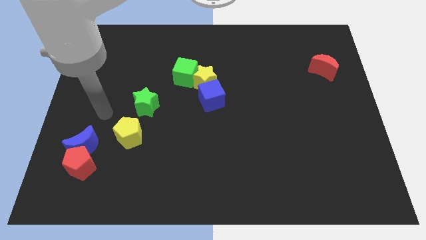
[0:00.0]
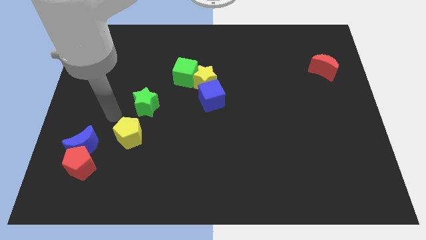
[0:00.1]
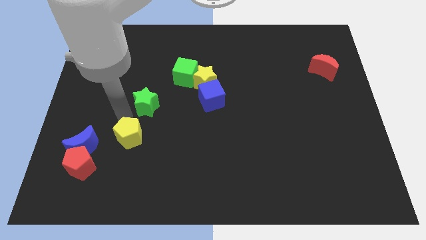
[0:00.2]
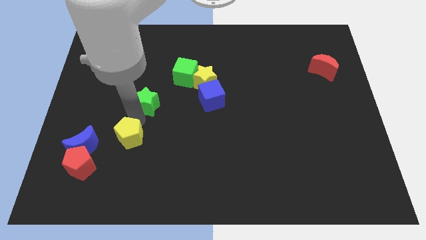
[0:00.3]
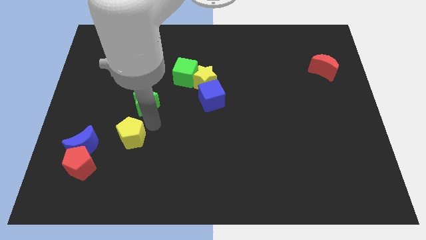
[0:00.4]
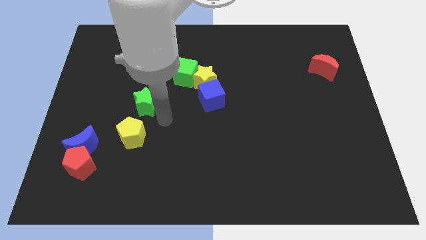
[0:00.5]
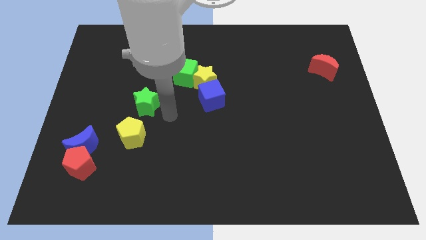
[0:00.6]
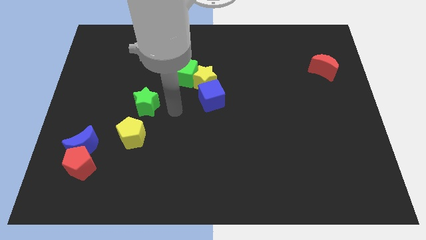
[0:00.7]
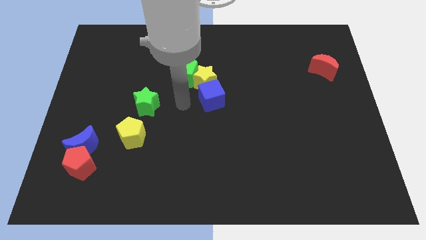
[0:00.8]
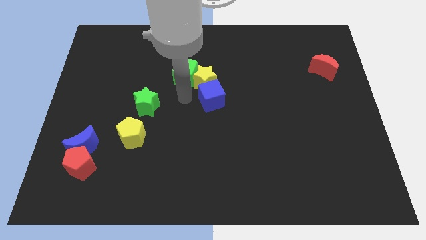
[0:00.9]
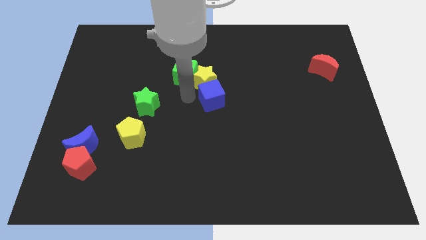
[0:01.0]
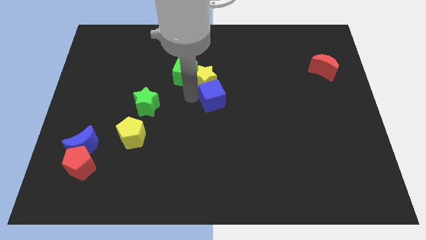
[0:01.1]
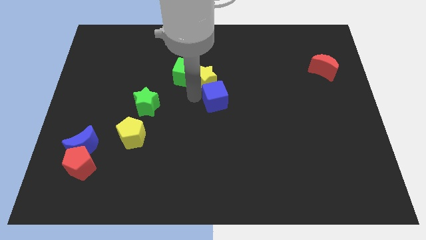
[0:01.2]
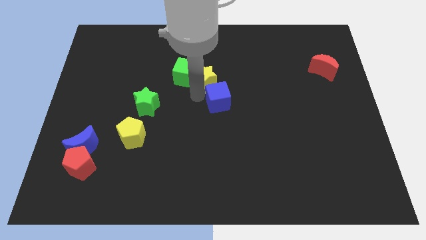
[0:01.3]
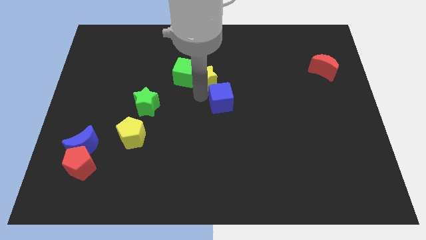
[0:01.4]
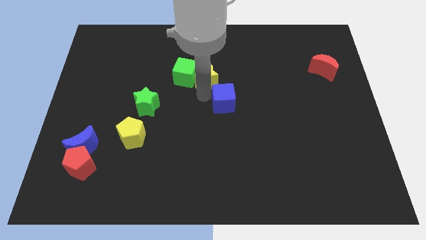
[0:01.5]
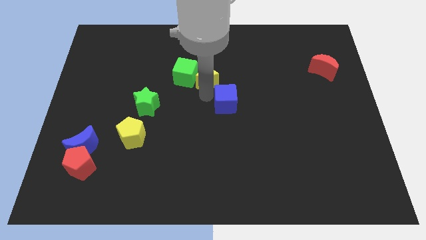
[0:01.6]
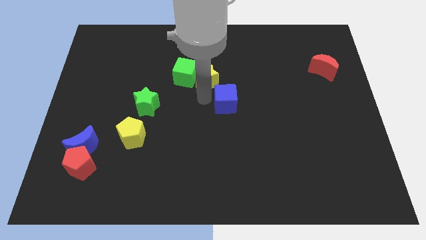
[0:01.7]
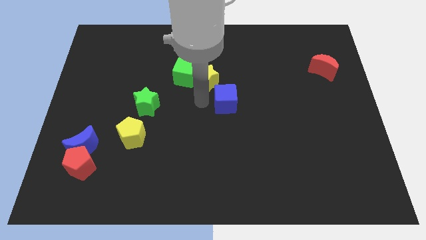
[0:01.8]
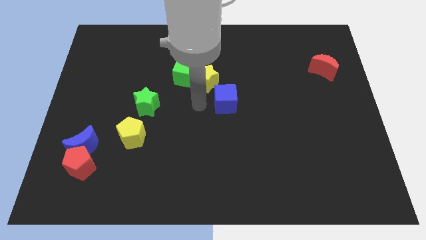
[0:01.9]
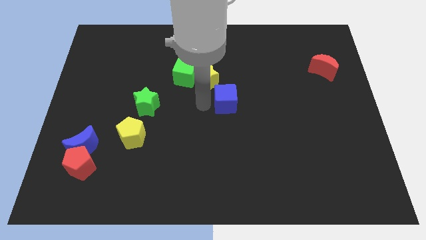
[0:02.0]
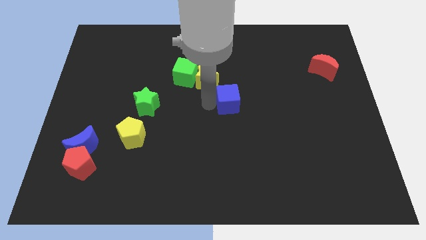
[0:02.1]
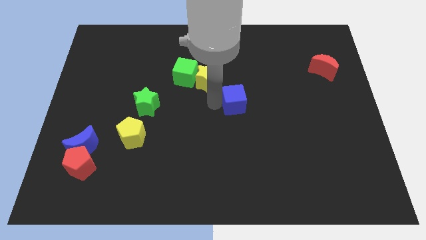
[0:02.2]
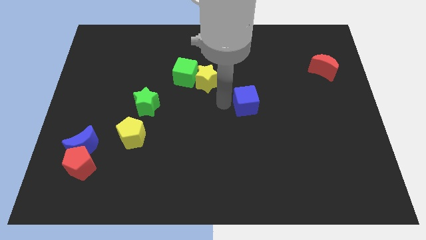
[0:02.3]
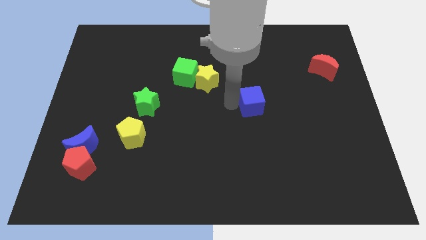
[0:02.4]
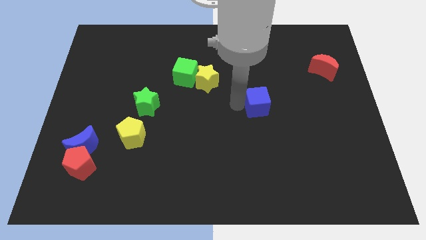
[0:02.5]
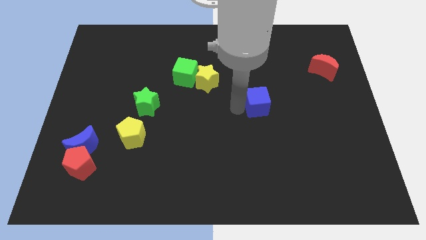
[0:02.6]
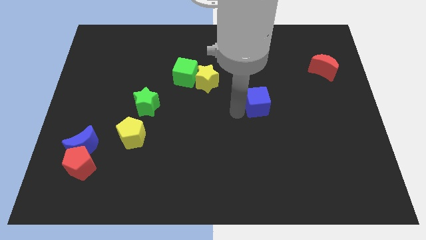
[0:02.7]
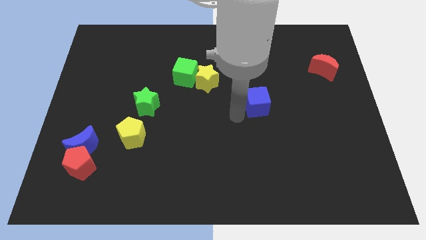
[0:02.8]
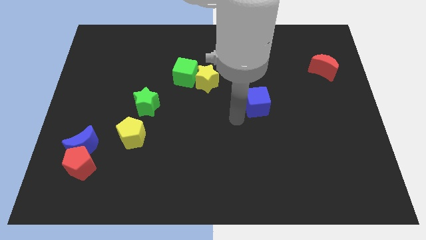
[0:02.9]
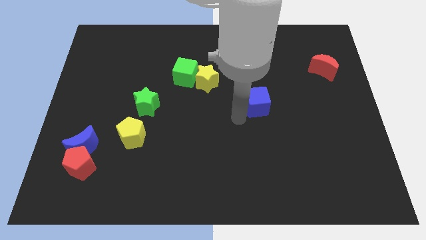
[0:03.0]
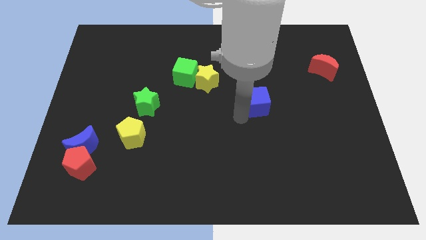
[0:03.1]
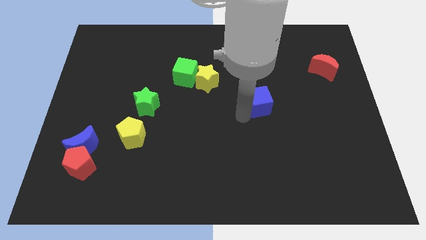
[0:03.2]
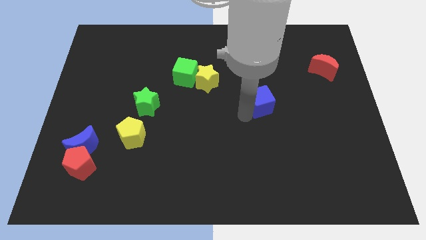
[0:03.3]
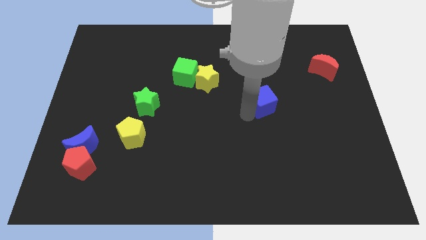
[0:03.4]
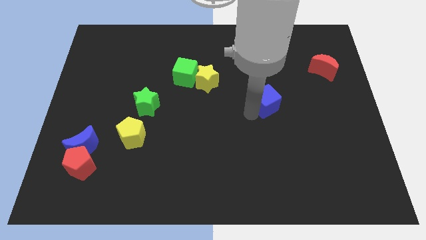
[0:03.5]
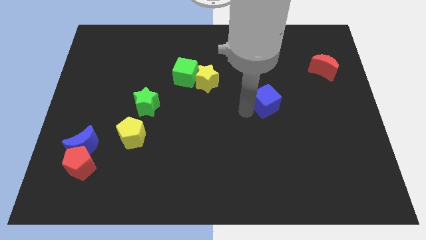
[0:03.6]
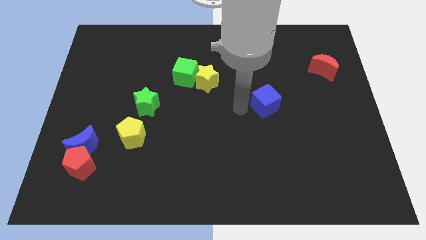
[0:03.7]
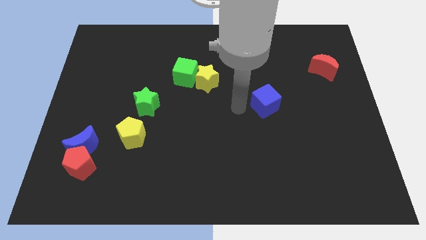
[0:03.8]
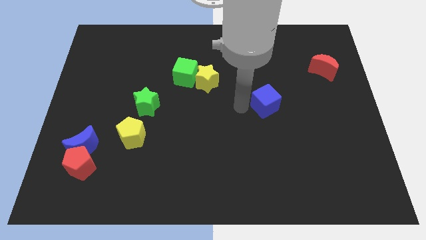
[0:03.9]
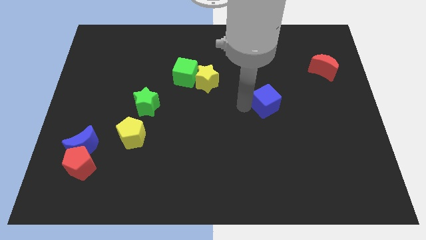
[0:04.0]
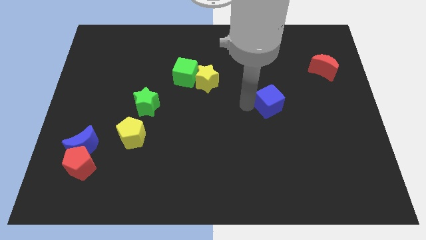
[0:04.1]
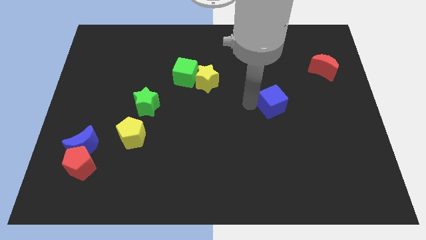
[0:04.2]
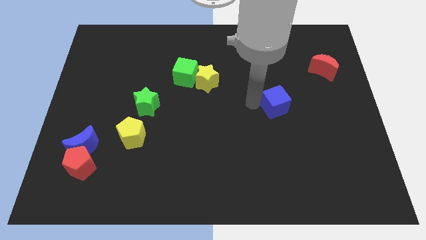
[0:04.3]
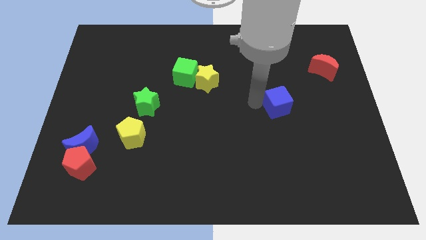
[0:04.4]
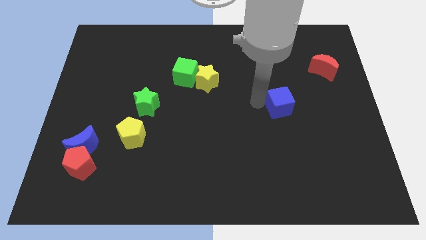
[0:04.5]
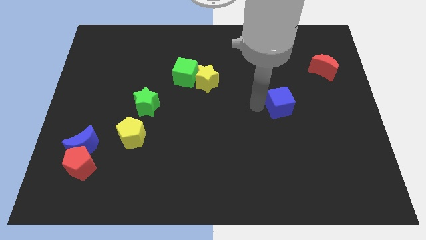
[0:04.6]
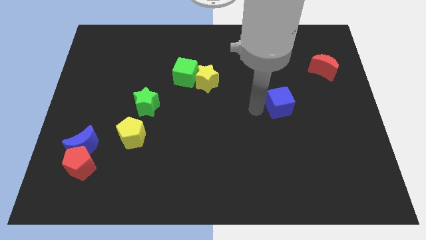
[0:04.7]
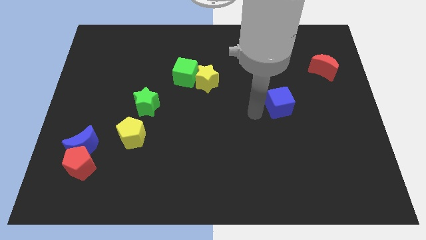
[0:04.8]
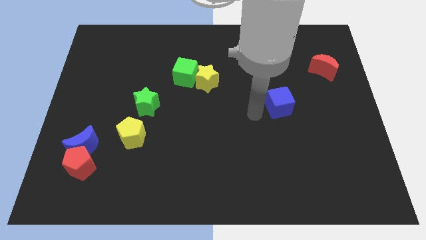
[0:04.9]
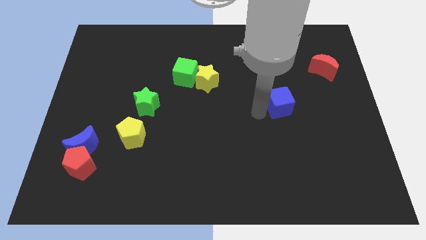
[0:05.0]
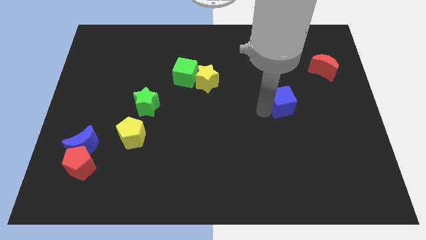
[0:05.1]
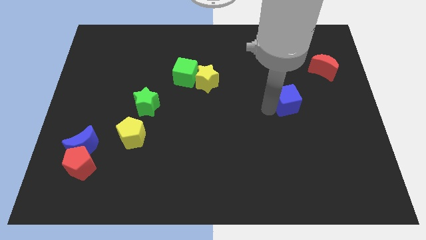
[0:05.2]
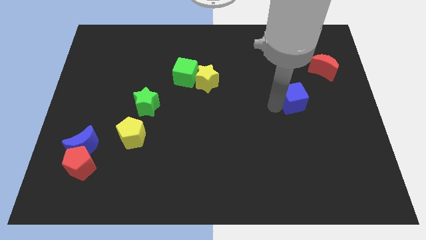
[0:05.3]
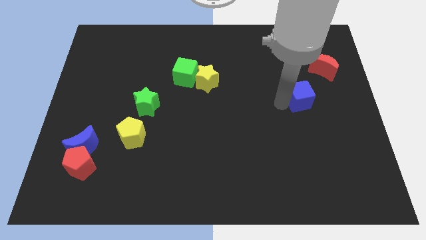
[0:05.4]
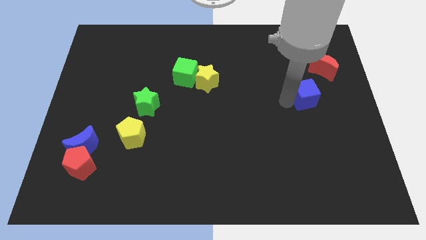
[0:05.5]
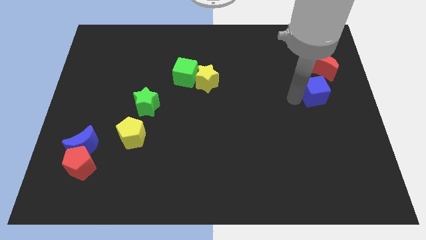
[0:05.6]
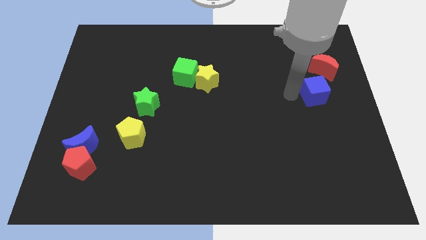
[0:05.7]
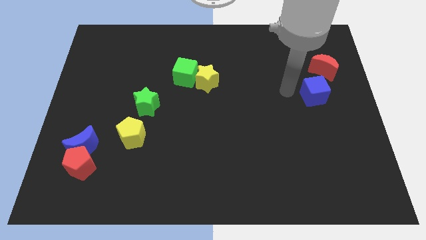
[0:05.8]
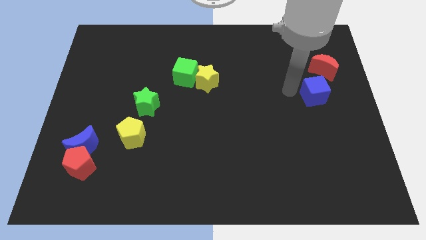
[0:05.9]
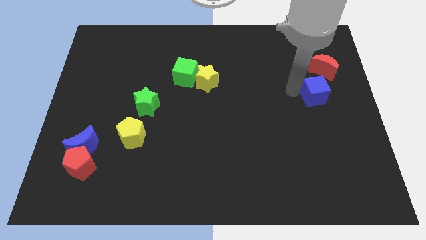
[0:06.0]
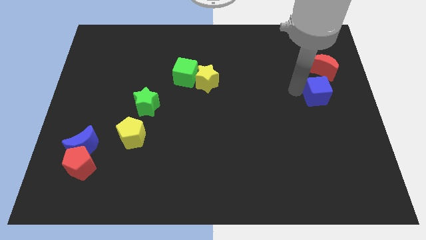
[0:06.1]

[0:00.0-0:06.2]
slide the blue cube to the right side
